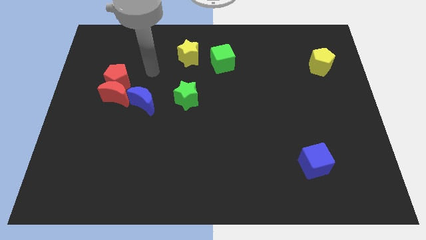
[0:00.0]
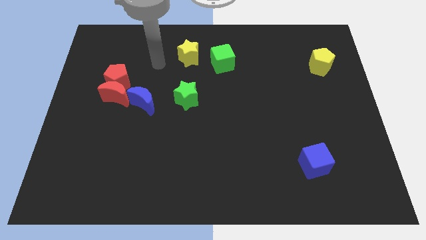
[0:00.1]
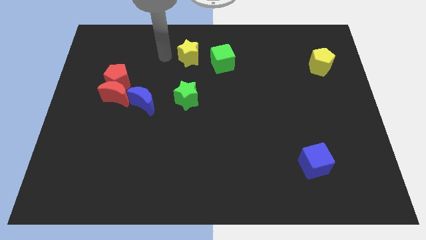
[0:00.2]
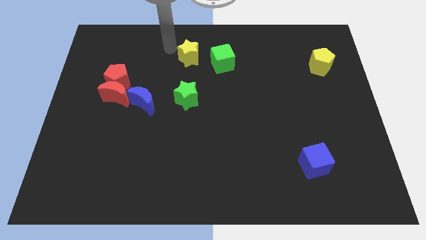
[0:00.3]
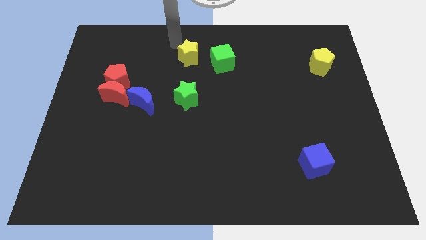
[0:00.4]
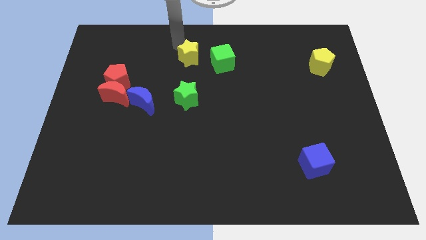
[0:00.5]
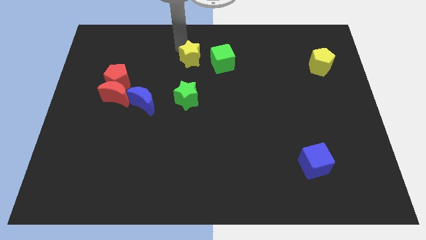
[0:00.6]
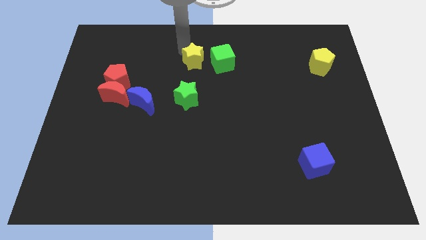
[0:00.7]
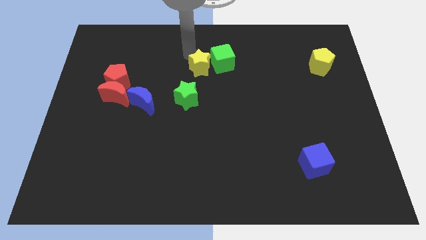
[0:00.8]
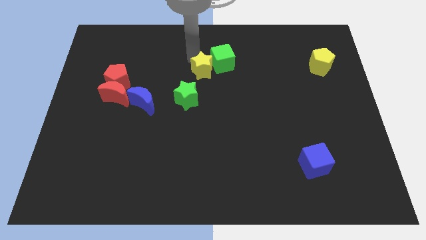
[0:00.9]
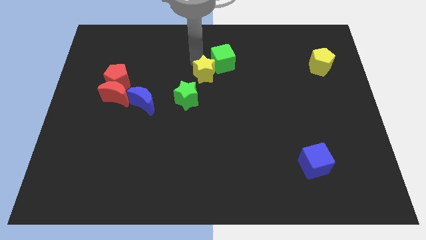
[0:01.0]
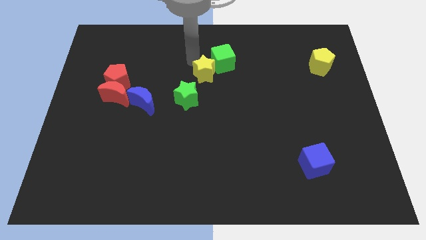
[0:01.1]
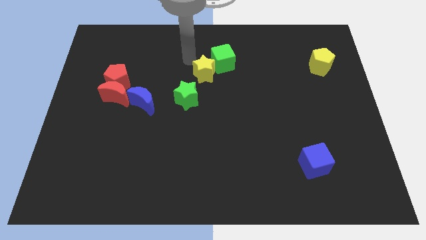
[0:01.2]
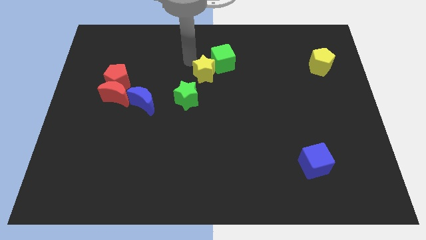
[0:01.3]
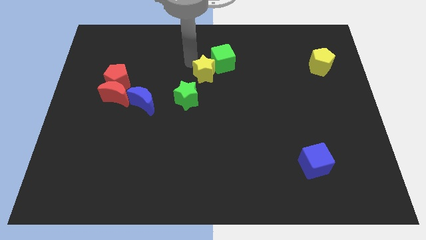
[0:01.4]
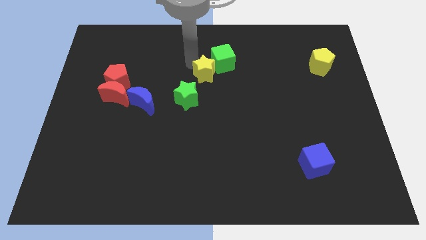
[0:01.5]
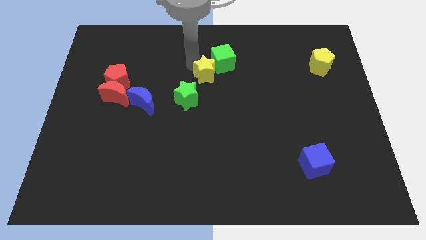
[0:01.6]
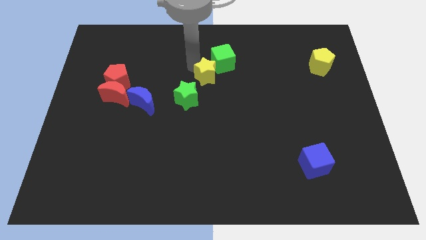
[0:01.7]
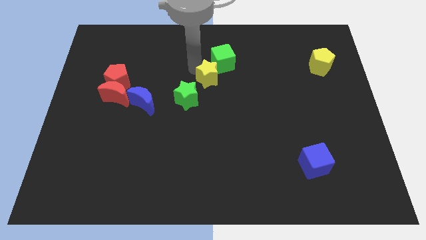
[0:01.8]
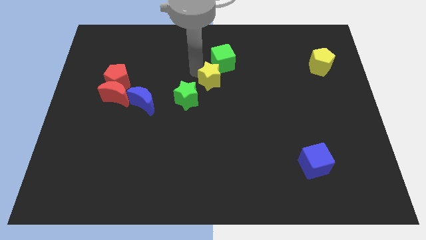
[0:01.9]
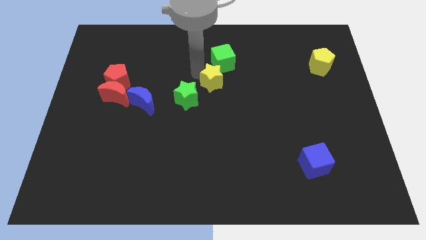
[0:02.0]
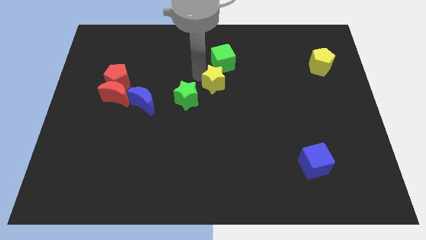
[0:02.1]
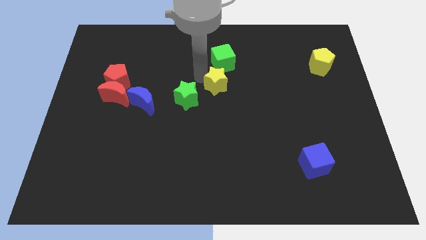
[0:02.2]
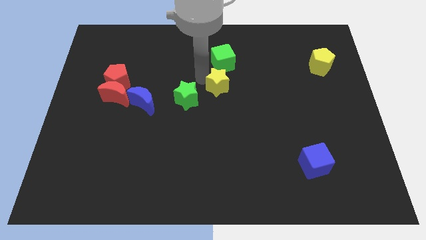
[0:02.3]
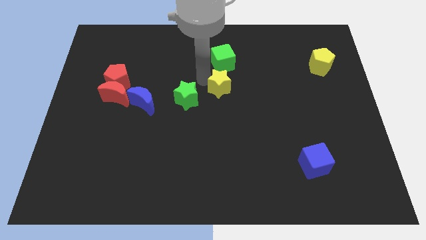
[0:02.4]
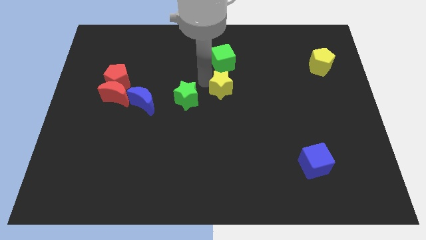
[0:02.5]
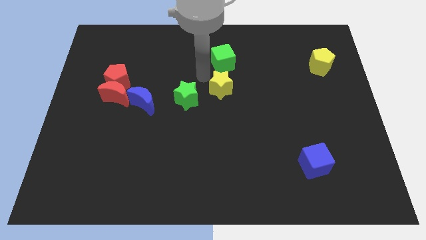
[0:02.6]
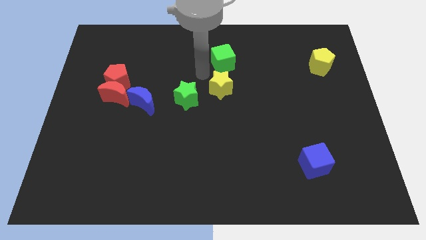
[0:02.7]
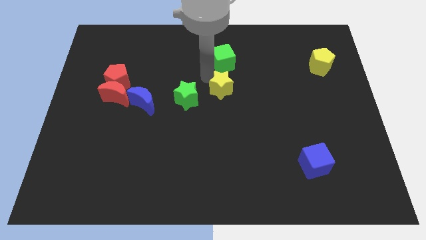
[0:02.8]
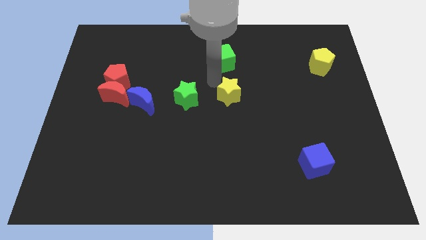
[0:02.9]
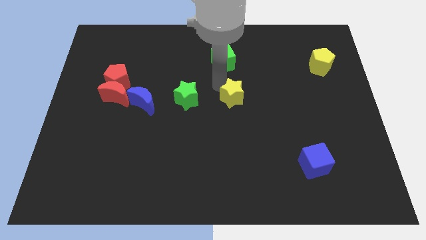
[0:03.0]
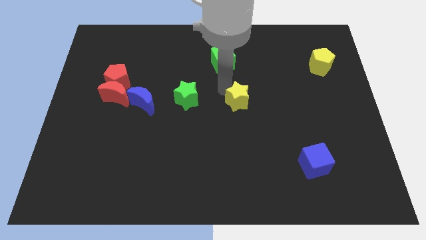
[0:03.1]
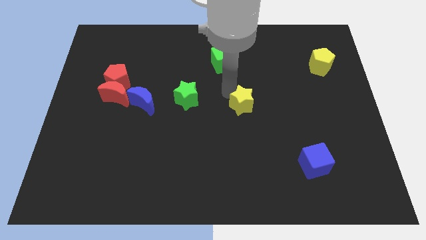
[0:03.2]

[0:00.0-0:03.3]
move the yellow star downwards and to the right

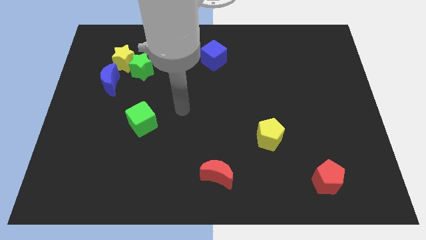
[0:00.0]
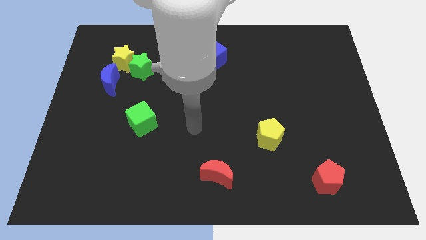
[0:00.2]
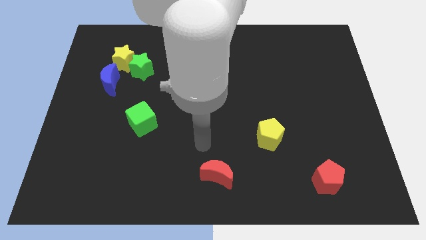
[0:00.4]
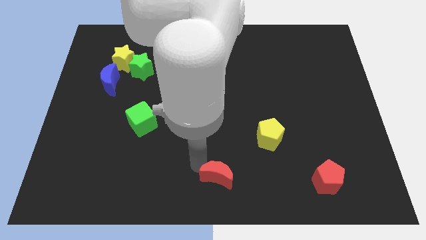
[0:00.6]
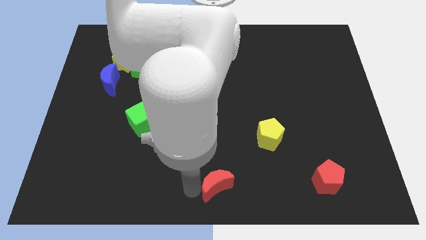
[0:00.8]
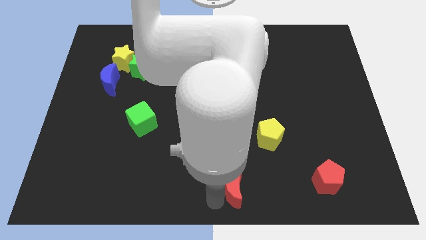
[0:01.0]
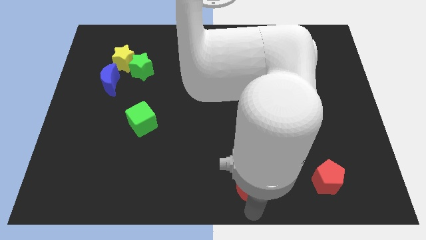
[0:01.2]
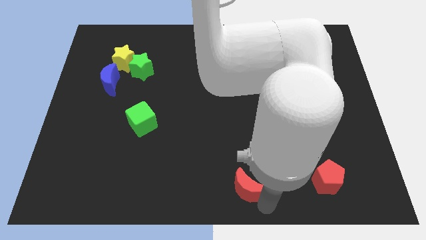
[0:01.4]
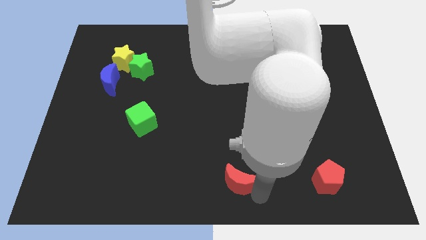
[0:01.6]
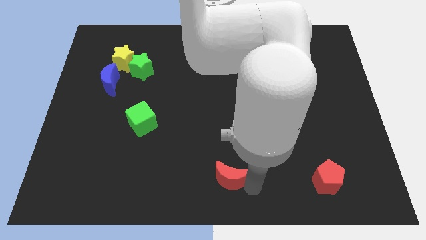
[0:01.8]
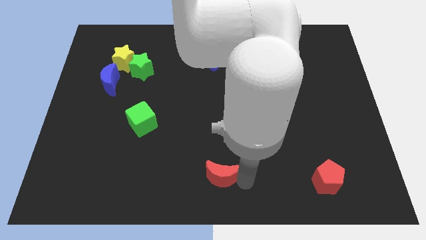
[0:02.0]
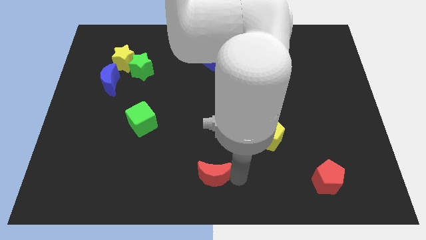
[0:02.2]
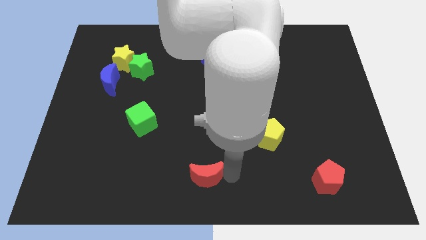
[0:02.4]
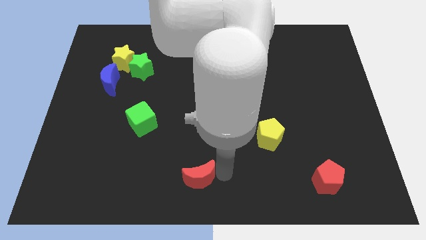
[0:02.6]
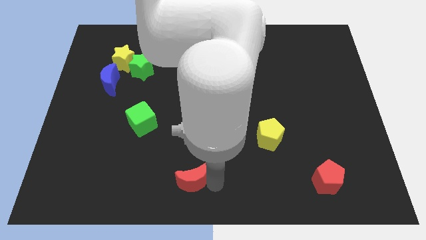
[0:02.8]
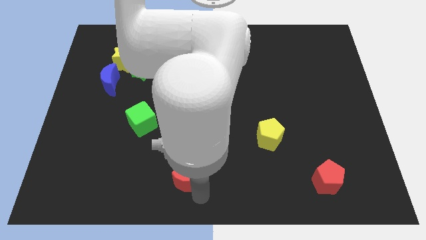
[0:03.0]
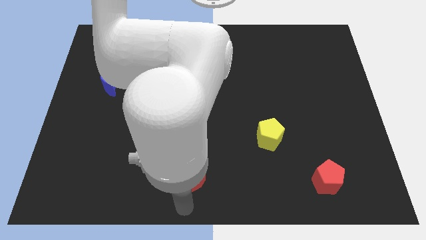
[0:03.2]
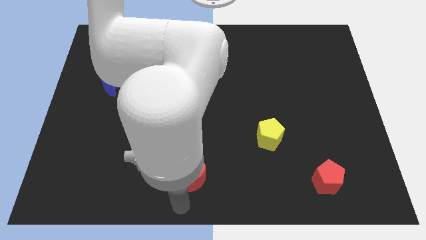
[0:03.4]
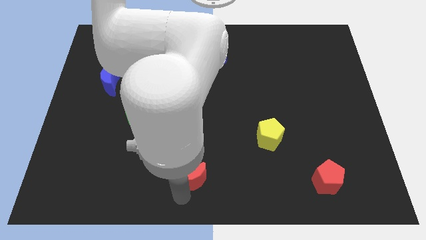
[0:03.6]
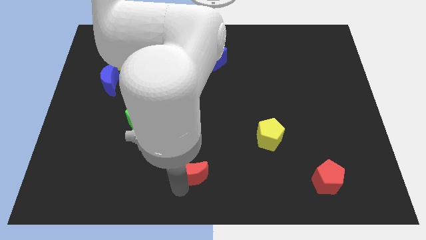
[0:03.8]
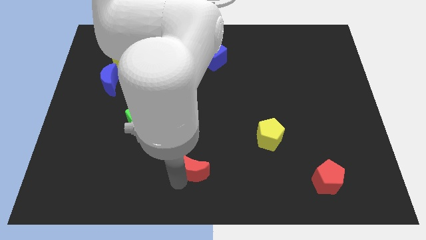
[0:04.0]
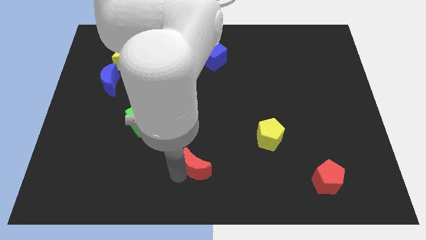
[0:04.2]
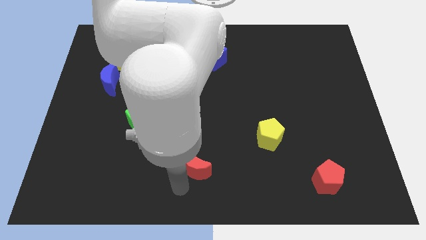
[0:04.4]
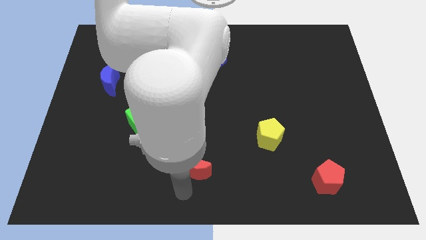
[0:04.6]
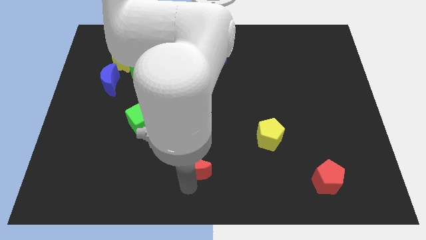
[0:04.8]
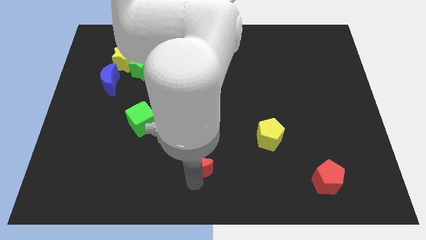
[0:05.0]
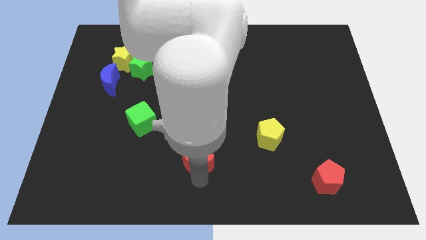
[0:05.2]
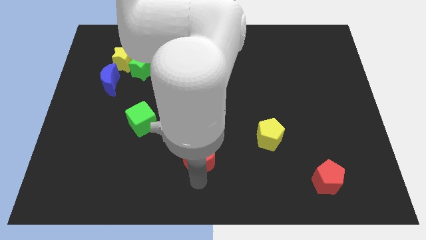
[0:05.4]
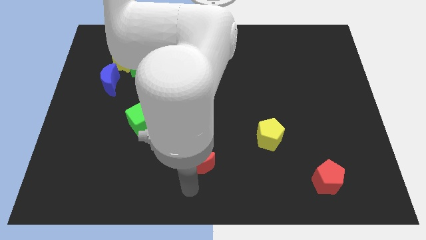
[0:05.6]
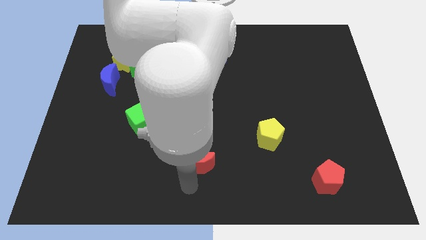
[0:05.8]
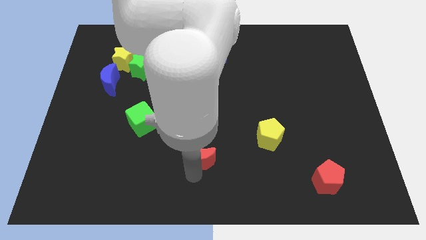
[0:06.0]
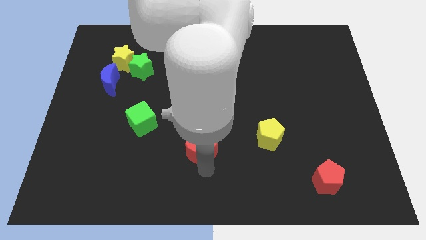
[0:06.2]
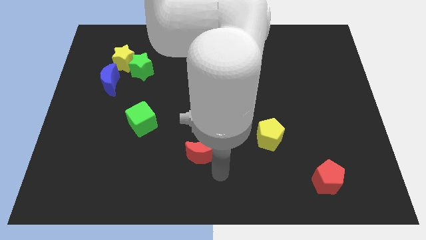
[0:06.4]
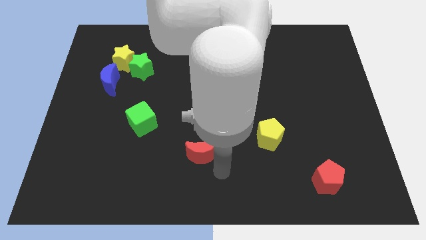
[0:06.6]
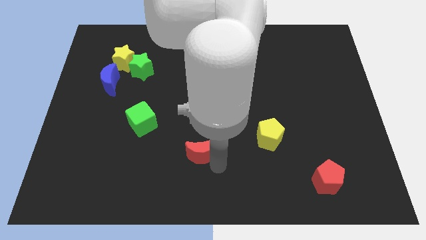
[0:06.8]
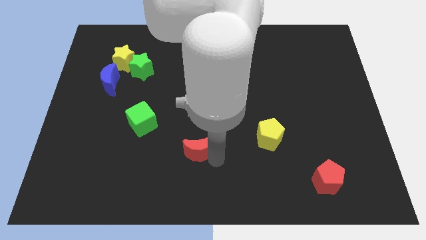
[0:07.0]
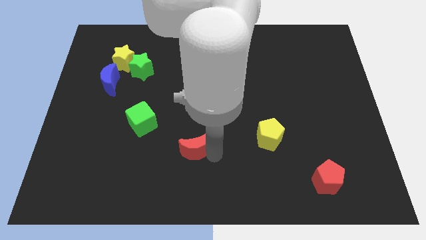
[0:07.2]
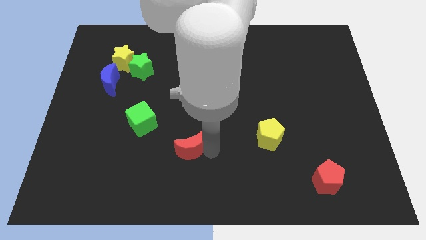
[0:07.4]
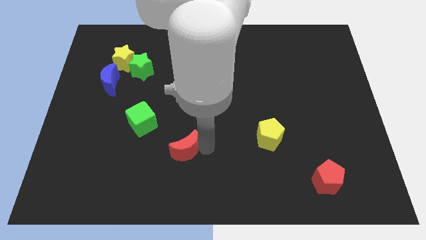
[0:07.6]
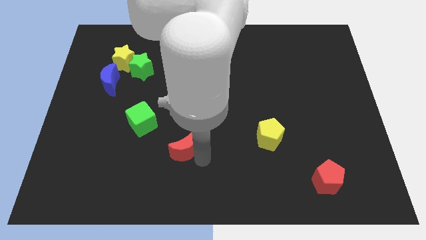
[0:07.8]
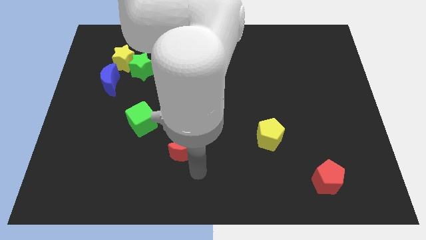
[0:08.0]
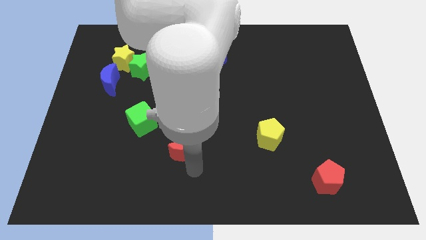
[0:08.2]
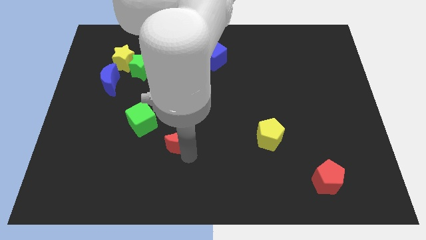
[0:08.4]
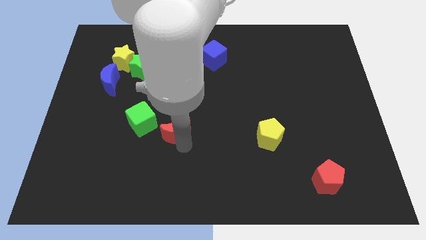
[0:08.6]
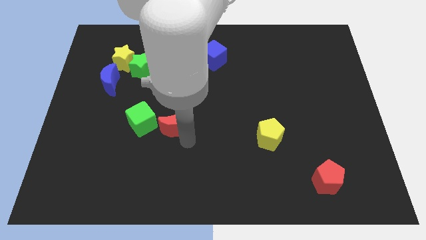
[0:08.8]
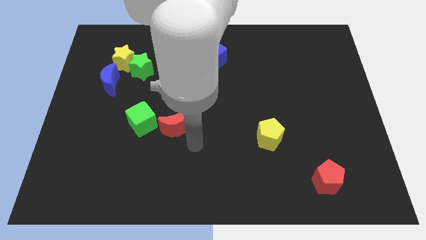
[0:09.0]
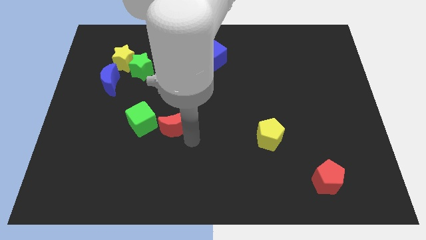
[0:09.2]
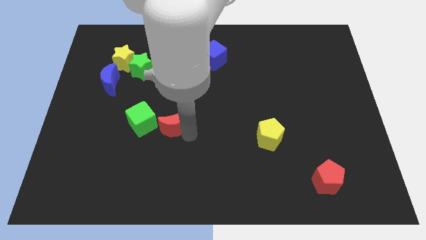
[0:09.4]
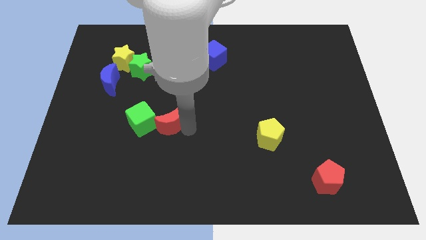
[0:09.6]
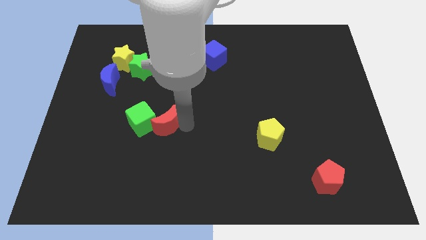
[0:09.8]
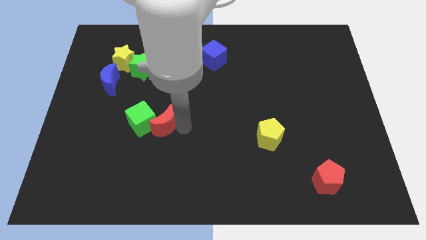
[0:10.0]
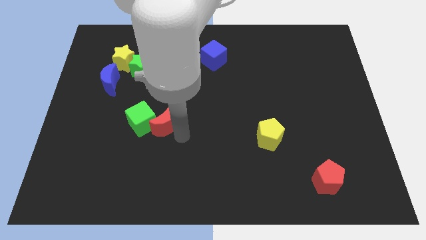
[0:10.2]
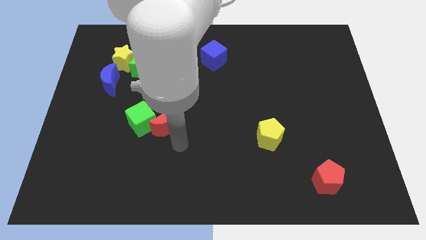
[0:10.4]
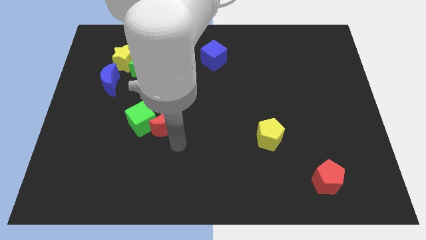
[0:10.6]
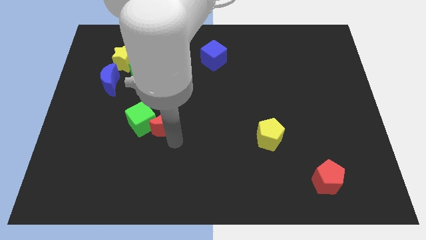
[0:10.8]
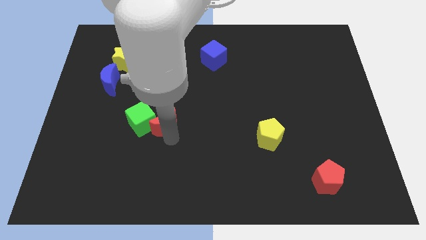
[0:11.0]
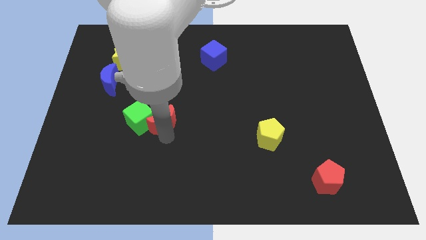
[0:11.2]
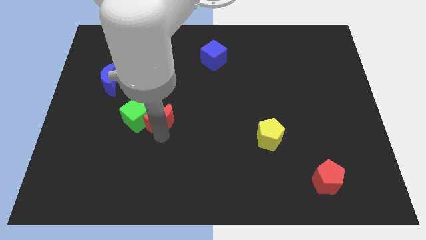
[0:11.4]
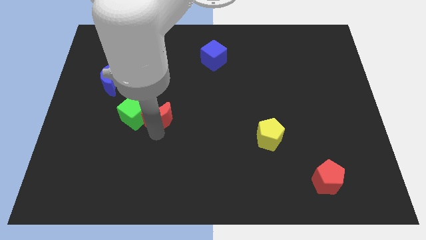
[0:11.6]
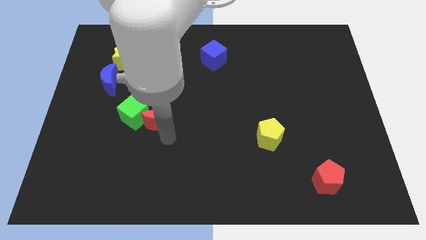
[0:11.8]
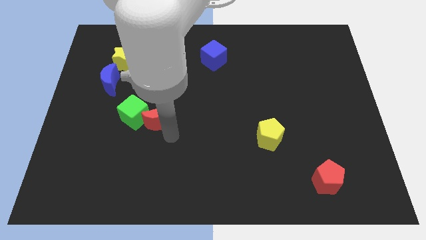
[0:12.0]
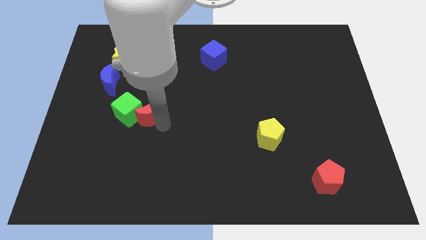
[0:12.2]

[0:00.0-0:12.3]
slide the red moon up and to the left
